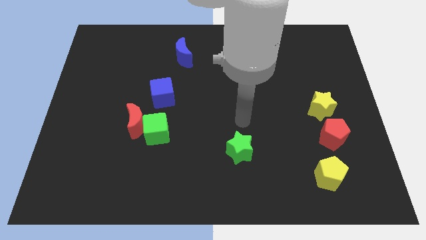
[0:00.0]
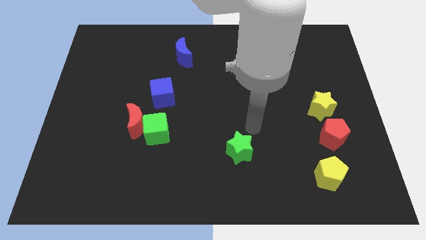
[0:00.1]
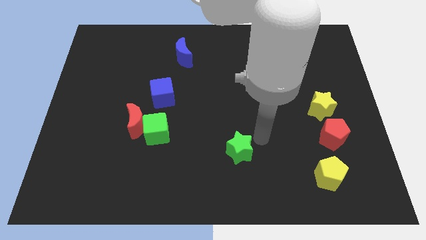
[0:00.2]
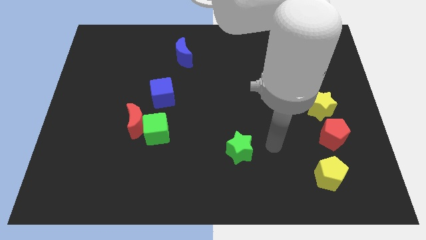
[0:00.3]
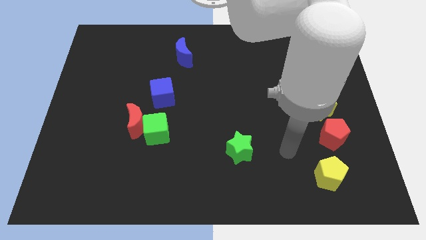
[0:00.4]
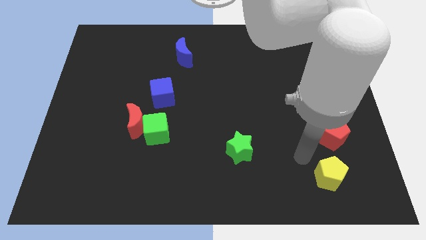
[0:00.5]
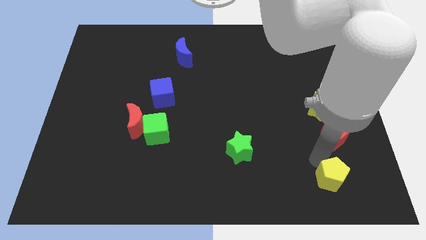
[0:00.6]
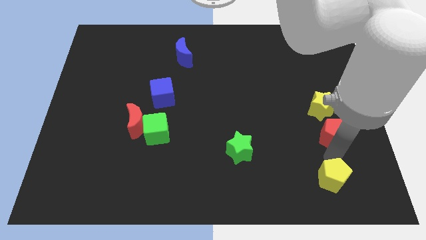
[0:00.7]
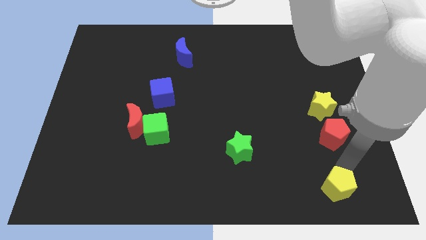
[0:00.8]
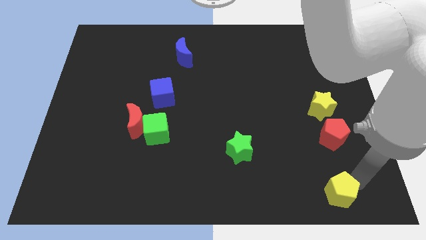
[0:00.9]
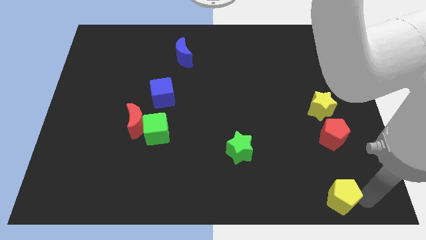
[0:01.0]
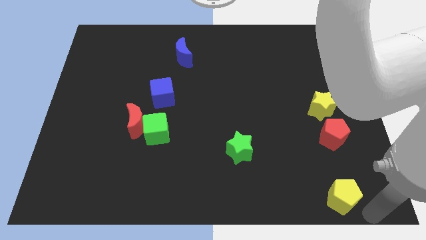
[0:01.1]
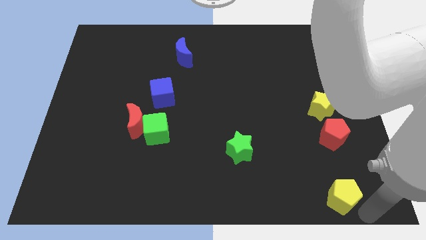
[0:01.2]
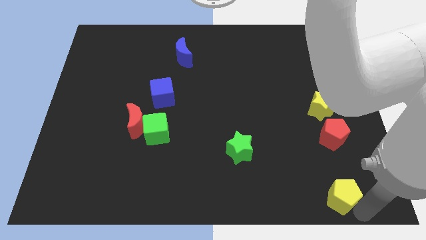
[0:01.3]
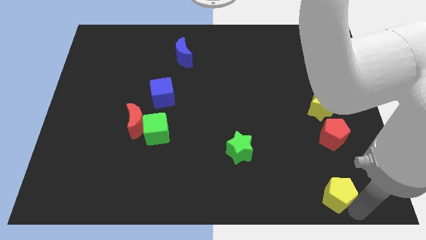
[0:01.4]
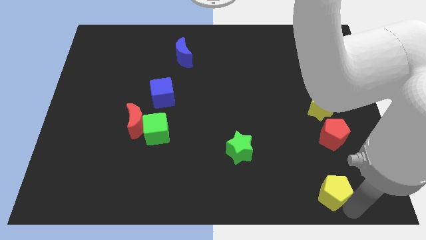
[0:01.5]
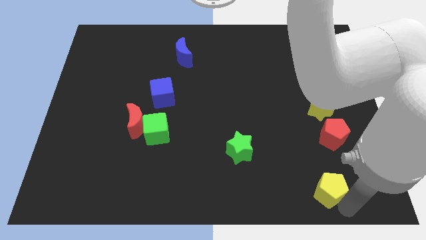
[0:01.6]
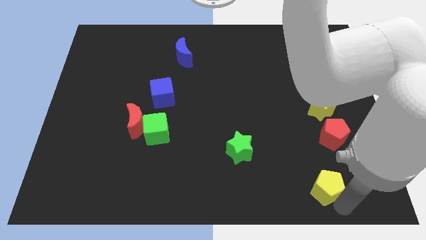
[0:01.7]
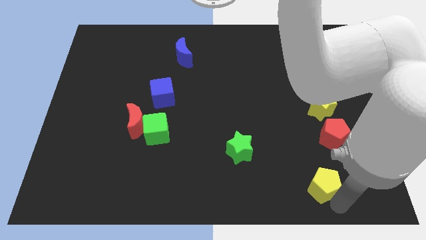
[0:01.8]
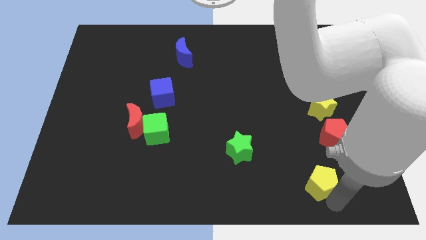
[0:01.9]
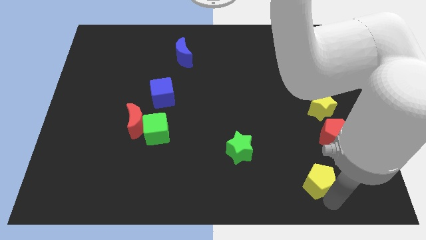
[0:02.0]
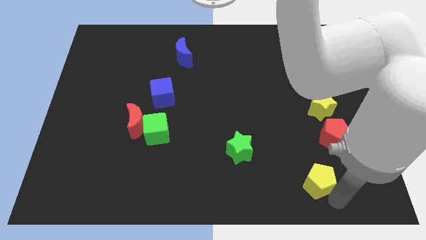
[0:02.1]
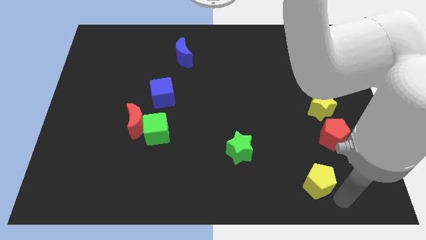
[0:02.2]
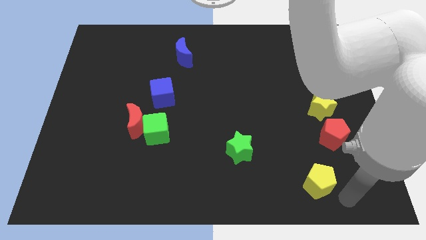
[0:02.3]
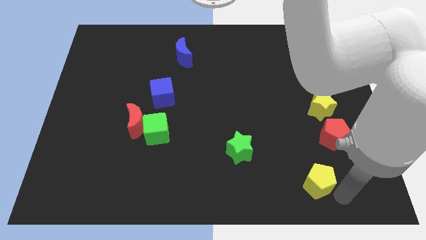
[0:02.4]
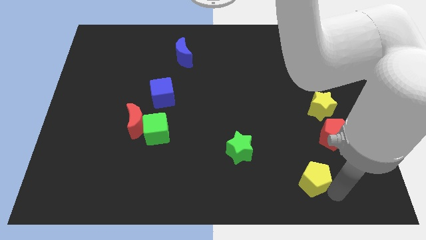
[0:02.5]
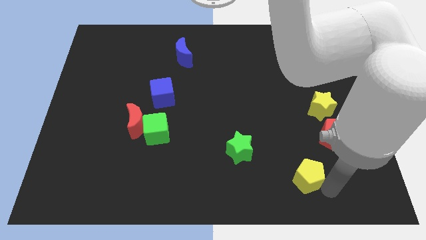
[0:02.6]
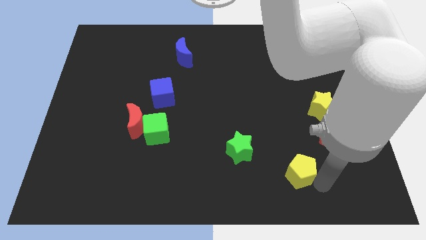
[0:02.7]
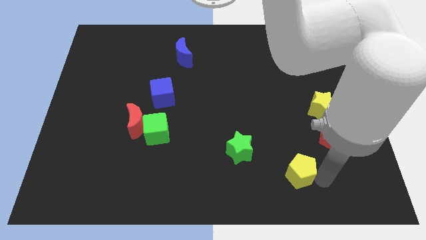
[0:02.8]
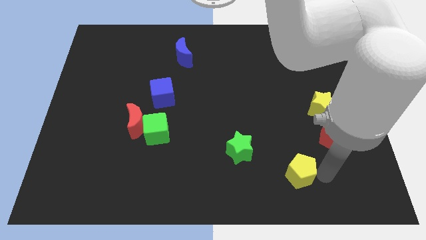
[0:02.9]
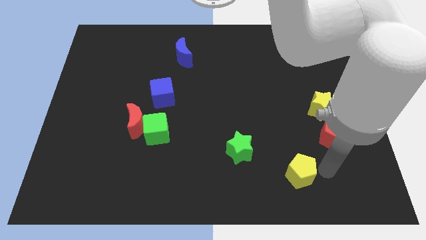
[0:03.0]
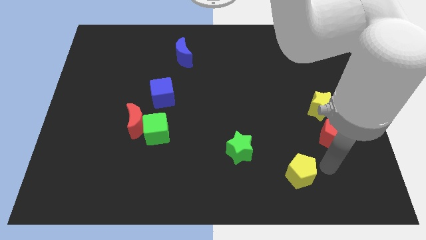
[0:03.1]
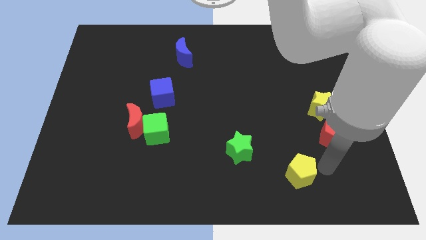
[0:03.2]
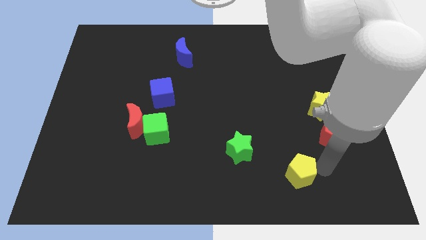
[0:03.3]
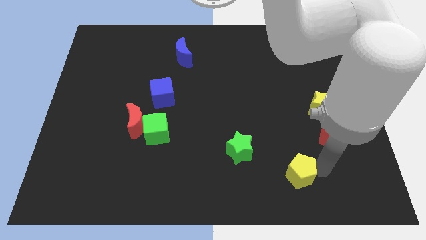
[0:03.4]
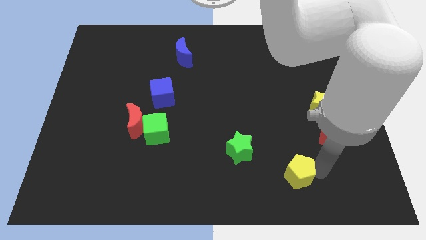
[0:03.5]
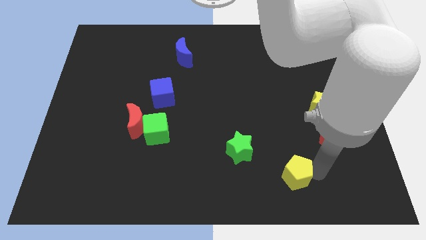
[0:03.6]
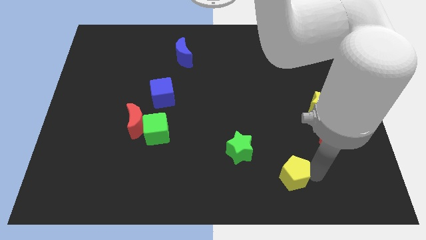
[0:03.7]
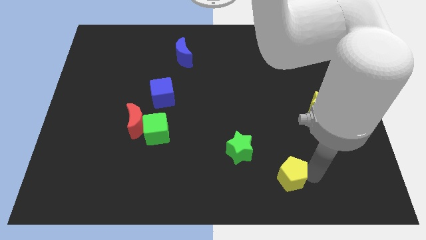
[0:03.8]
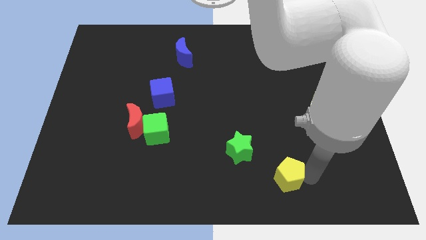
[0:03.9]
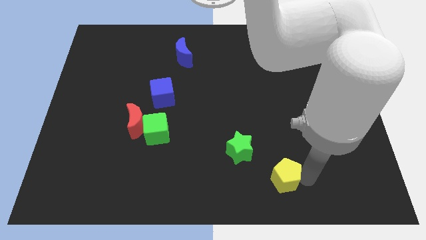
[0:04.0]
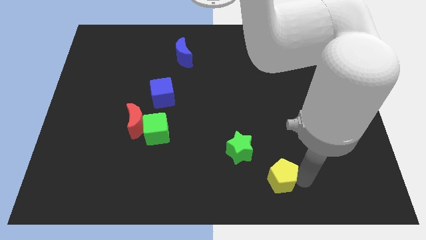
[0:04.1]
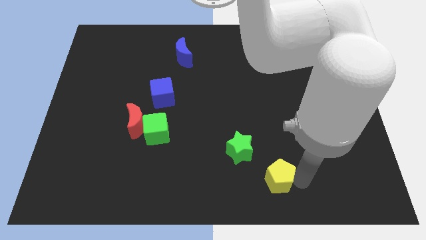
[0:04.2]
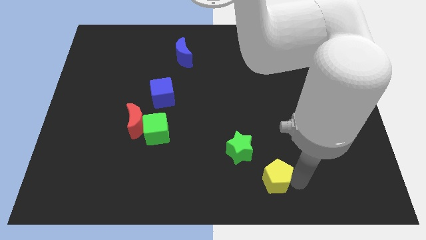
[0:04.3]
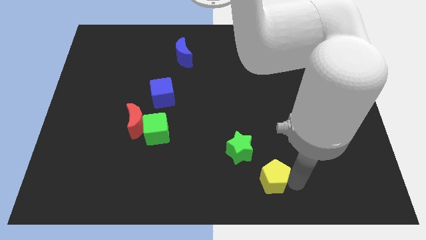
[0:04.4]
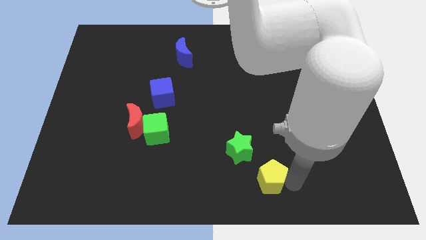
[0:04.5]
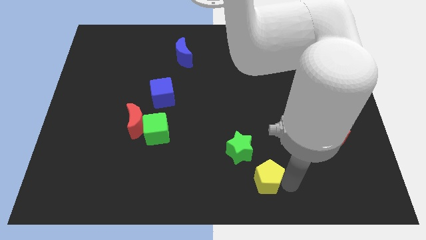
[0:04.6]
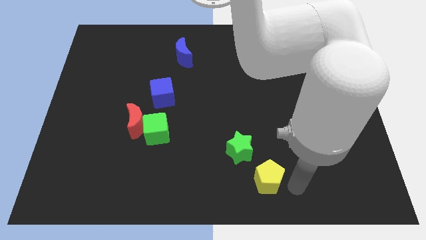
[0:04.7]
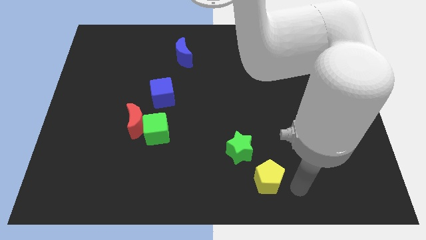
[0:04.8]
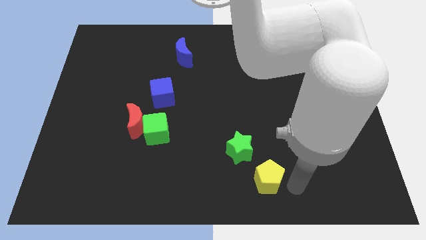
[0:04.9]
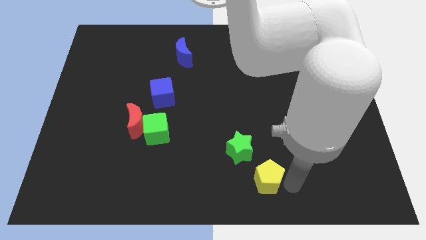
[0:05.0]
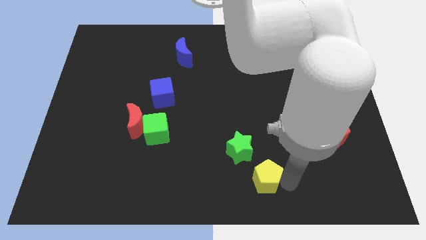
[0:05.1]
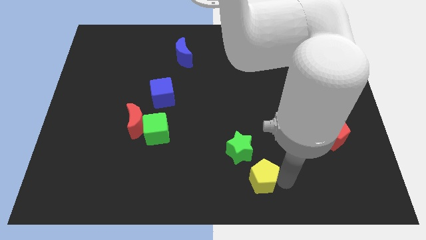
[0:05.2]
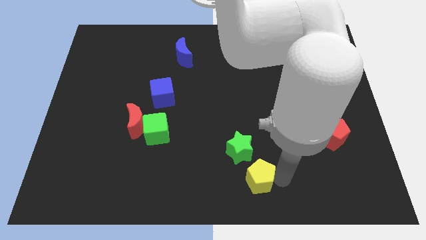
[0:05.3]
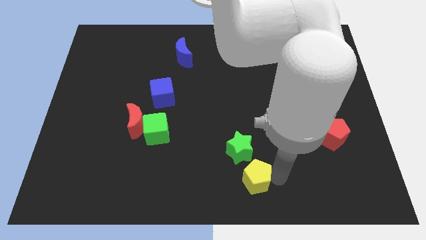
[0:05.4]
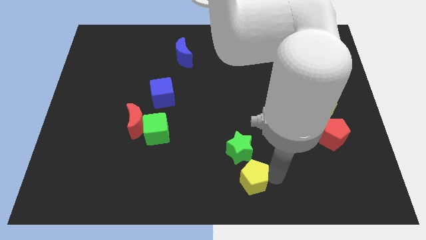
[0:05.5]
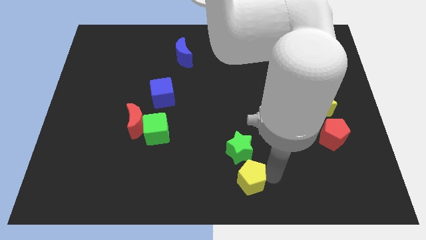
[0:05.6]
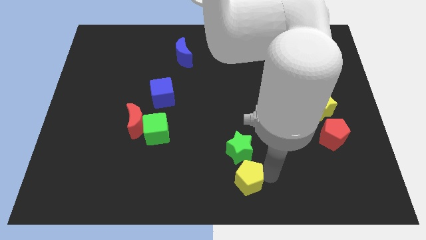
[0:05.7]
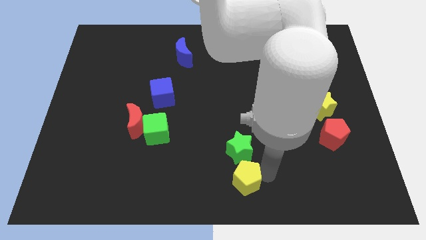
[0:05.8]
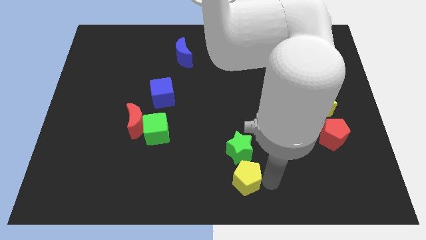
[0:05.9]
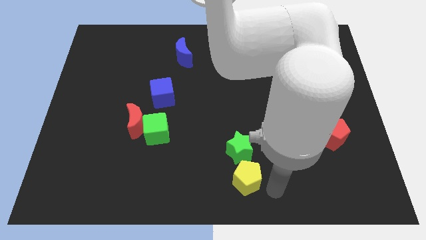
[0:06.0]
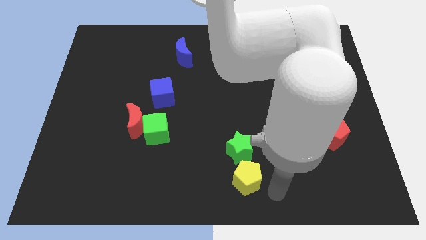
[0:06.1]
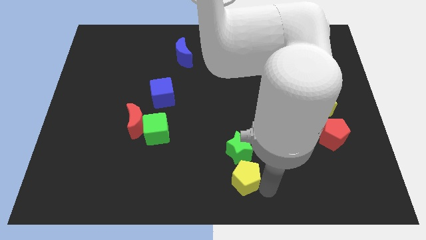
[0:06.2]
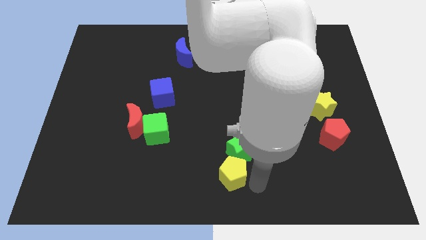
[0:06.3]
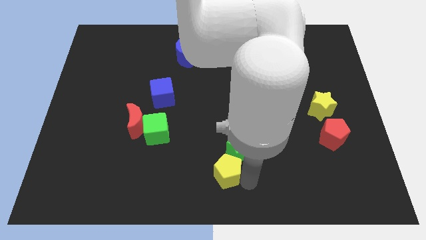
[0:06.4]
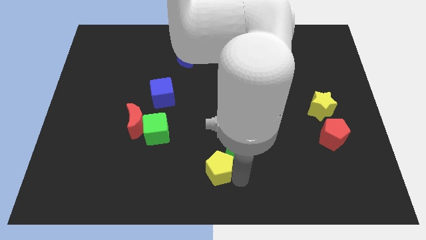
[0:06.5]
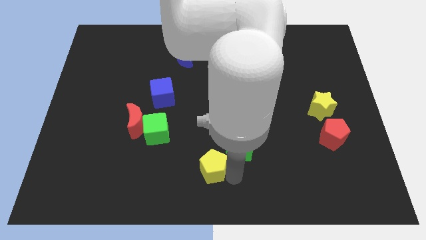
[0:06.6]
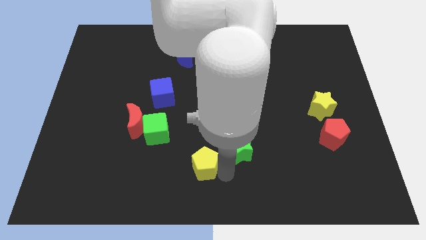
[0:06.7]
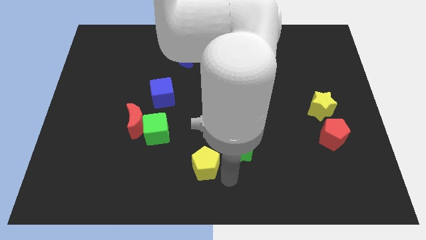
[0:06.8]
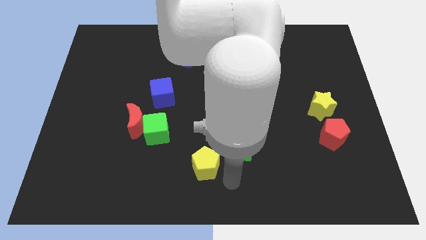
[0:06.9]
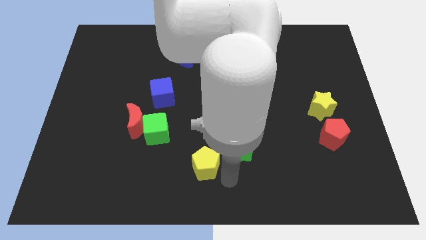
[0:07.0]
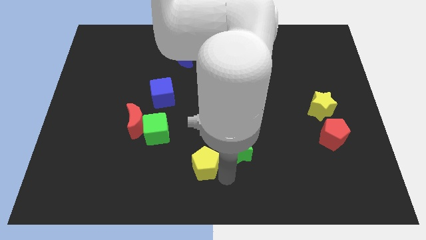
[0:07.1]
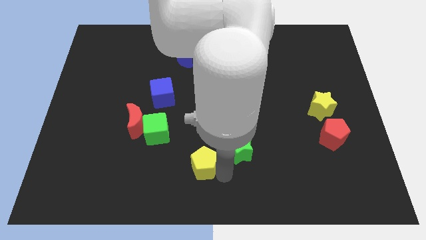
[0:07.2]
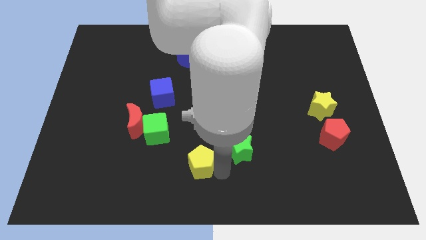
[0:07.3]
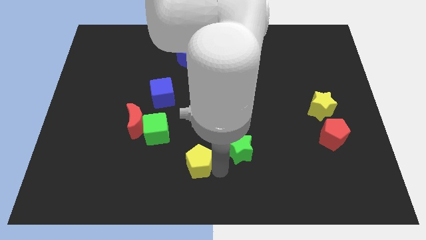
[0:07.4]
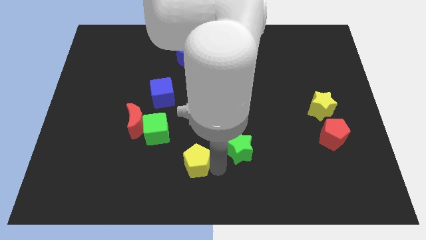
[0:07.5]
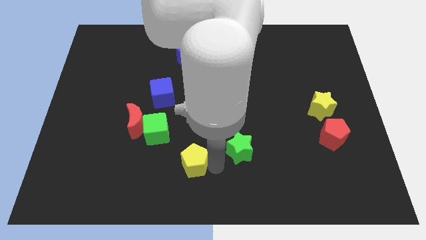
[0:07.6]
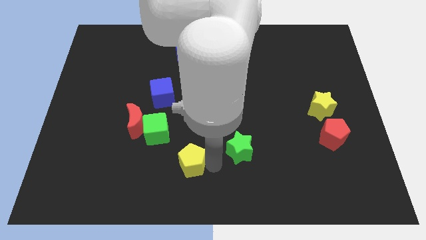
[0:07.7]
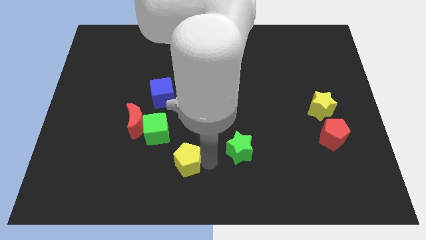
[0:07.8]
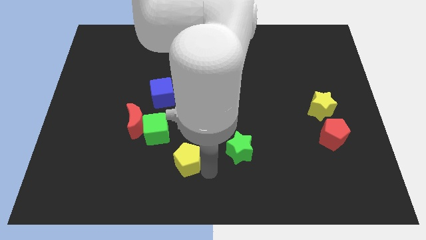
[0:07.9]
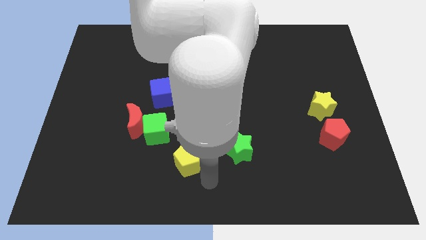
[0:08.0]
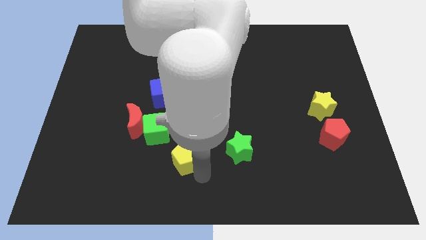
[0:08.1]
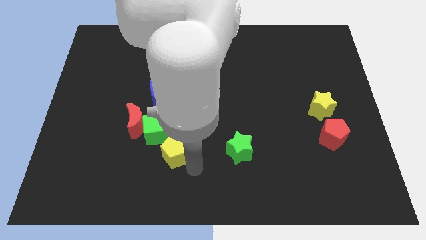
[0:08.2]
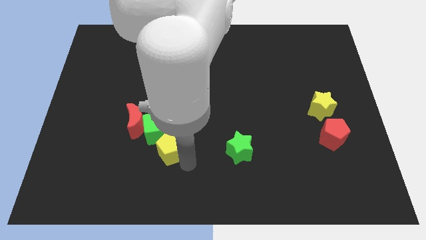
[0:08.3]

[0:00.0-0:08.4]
push the yellow pentagon to the green cube
